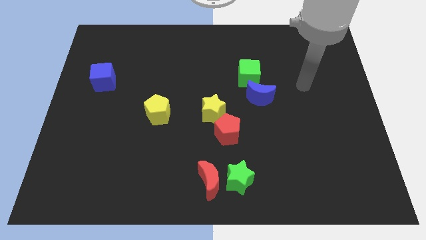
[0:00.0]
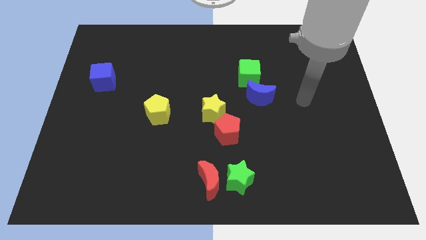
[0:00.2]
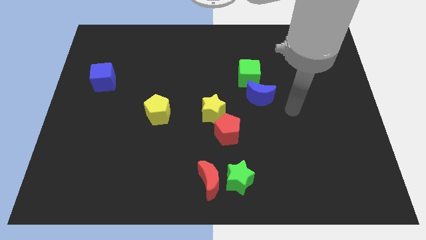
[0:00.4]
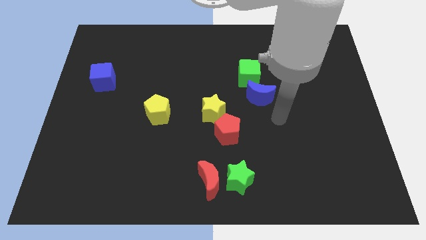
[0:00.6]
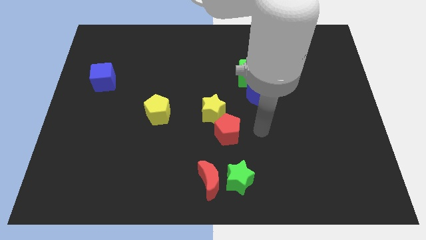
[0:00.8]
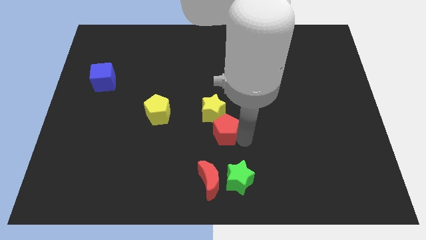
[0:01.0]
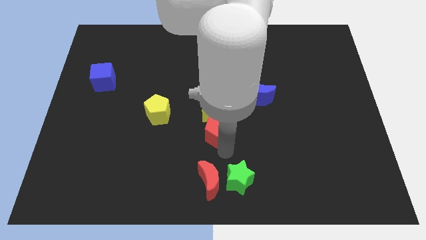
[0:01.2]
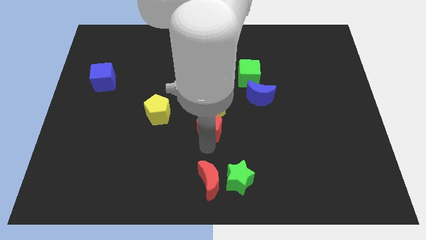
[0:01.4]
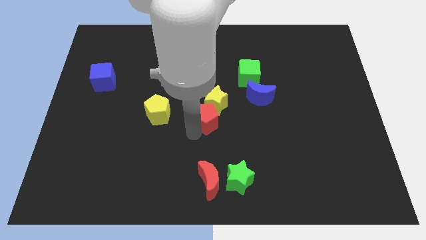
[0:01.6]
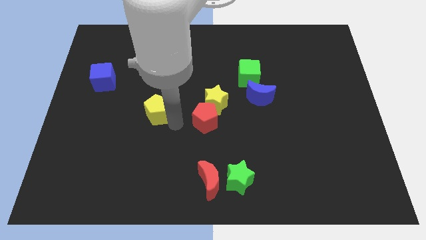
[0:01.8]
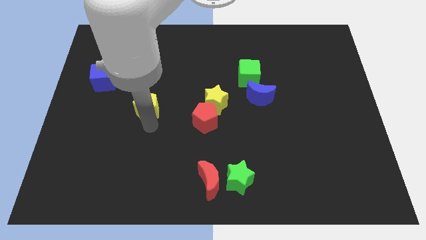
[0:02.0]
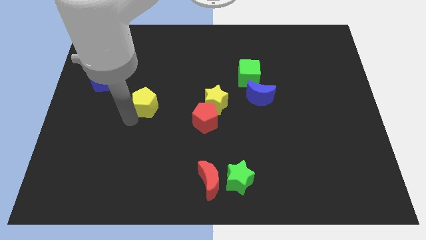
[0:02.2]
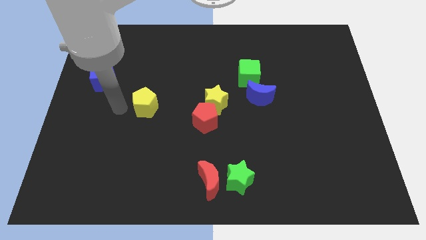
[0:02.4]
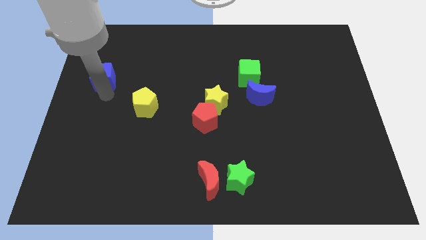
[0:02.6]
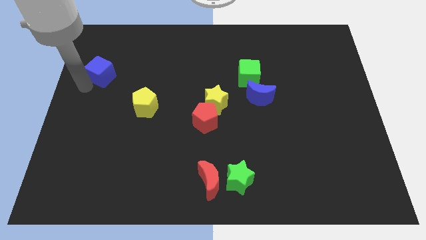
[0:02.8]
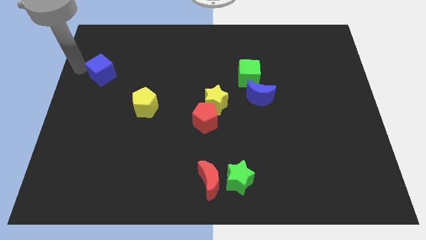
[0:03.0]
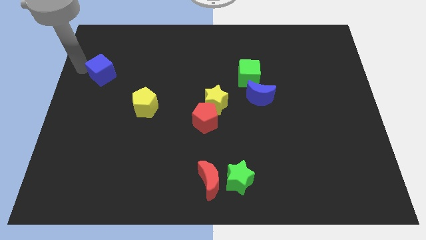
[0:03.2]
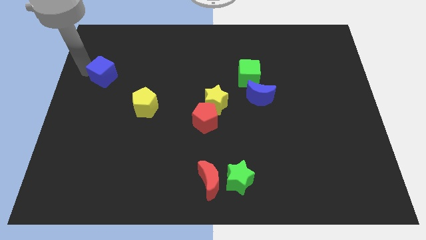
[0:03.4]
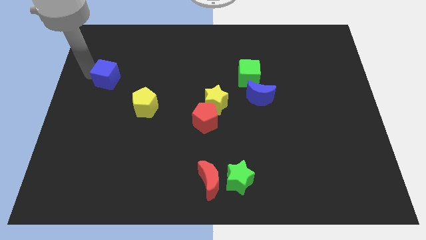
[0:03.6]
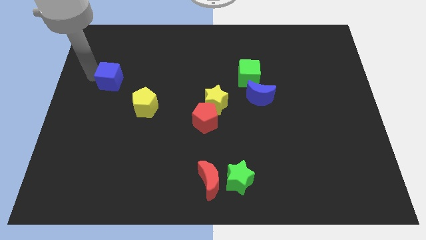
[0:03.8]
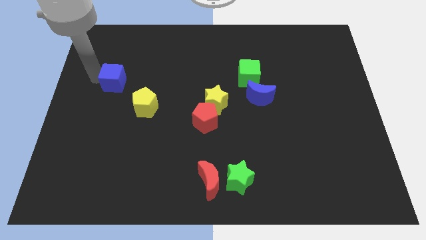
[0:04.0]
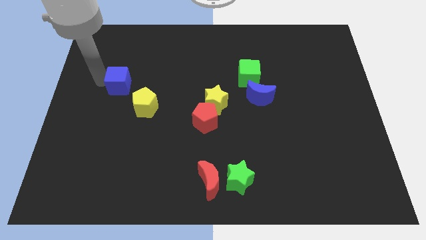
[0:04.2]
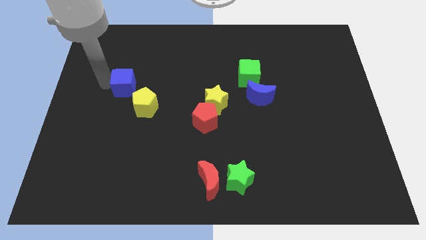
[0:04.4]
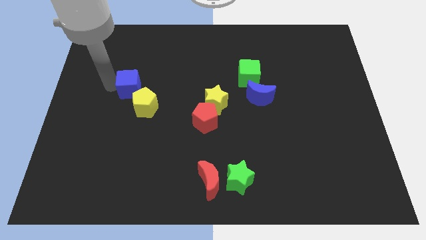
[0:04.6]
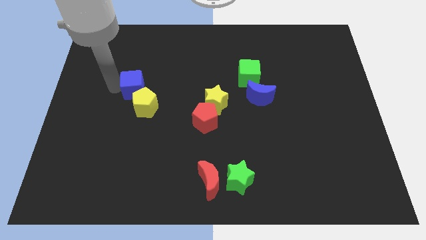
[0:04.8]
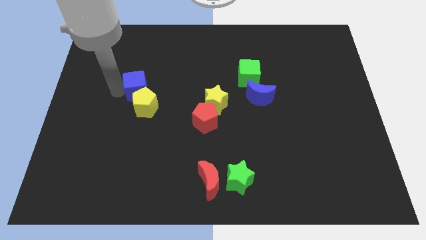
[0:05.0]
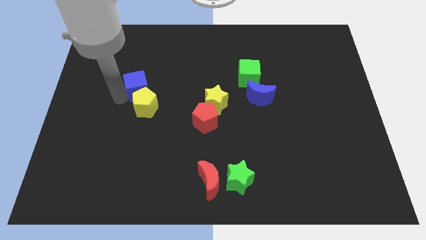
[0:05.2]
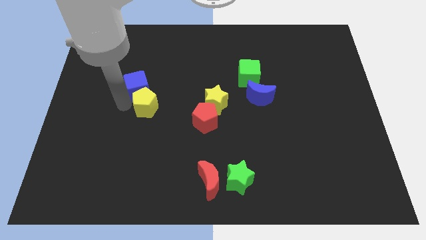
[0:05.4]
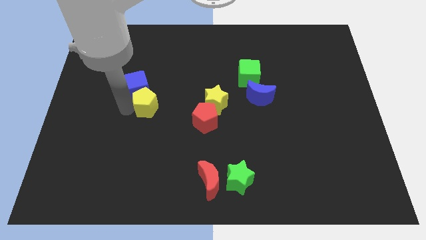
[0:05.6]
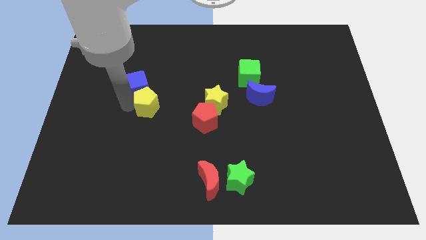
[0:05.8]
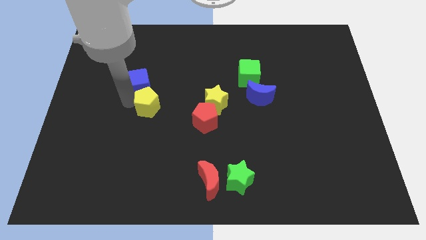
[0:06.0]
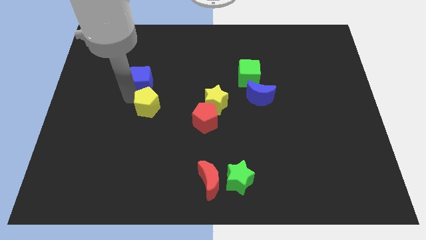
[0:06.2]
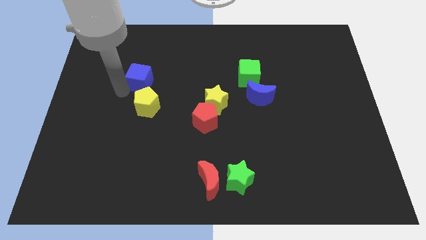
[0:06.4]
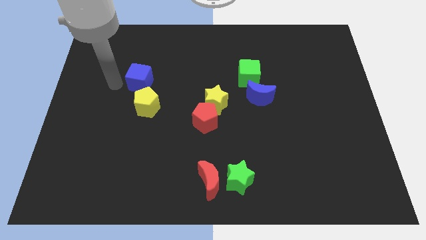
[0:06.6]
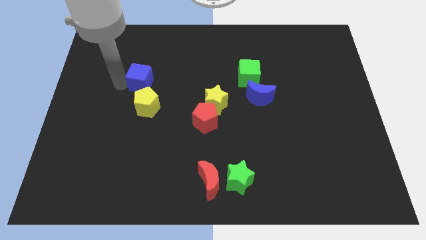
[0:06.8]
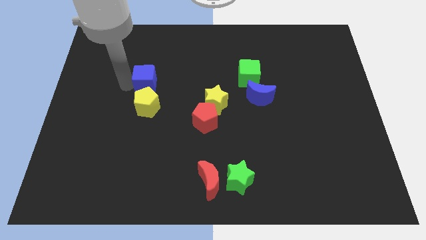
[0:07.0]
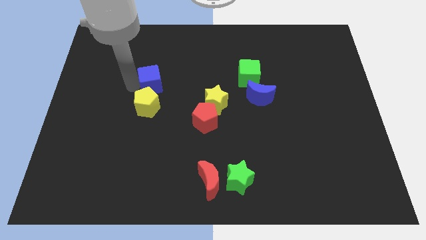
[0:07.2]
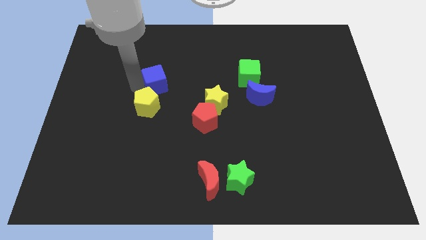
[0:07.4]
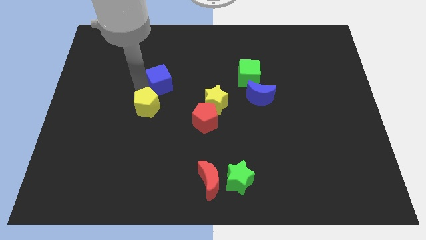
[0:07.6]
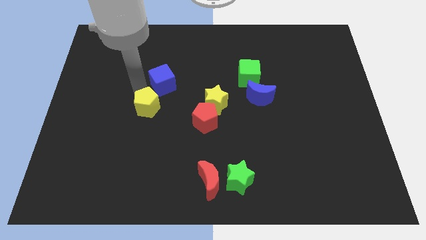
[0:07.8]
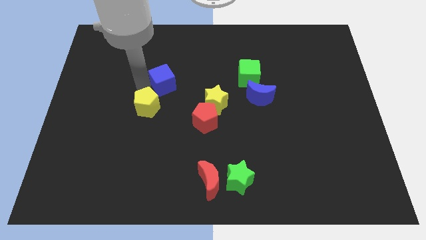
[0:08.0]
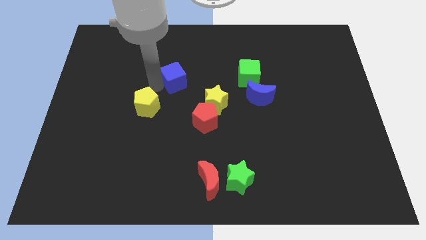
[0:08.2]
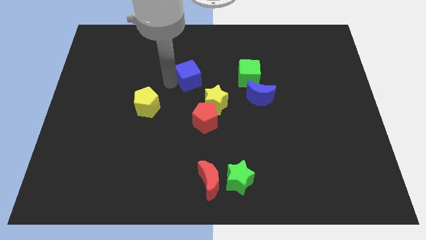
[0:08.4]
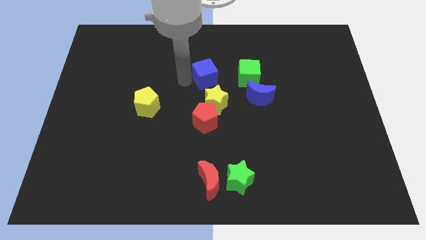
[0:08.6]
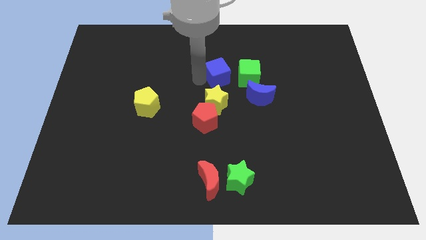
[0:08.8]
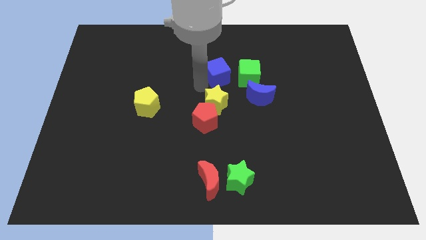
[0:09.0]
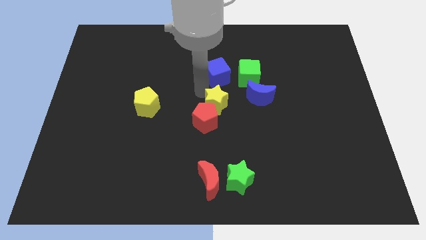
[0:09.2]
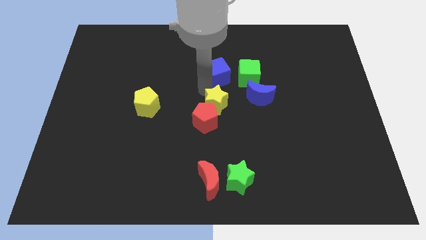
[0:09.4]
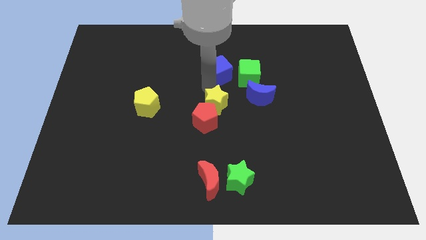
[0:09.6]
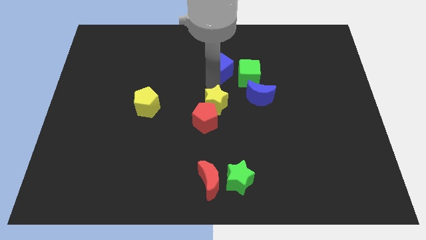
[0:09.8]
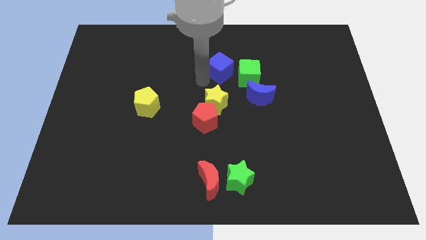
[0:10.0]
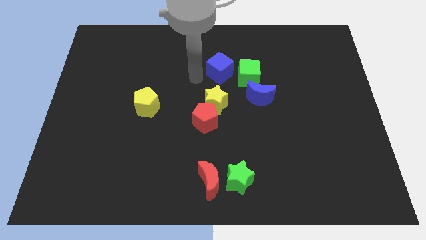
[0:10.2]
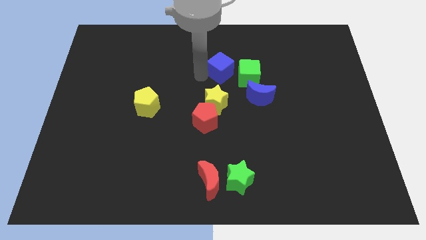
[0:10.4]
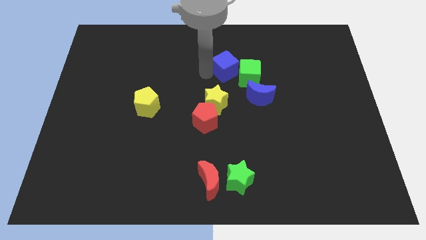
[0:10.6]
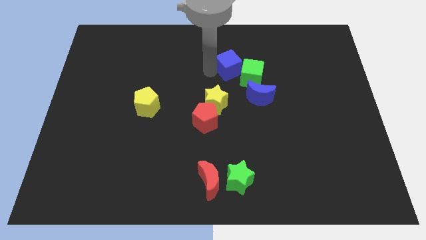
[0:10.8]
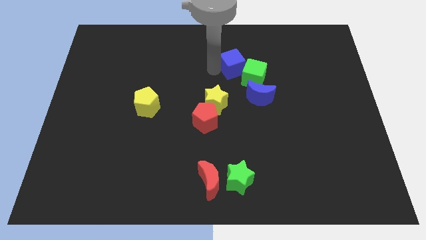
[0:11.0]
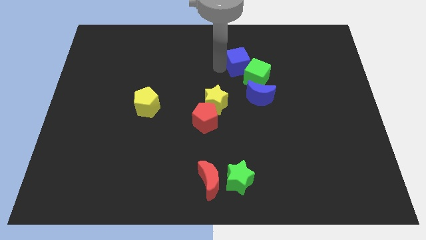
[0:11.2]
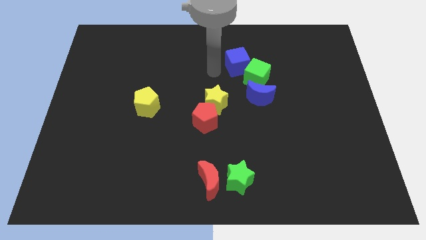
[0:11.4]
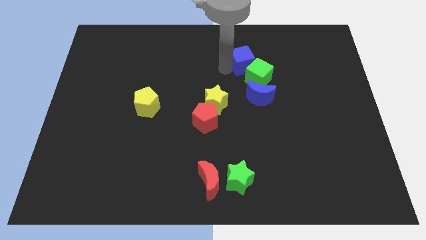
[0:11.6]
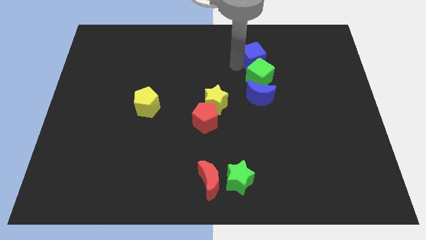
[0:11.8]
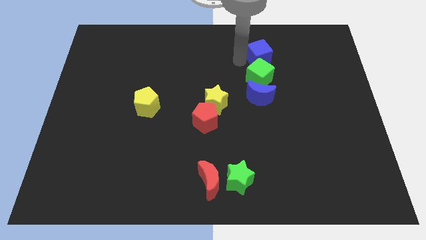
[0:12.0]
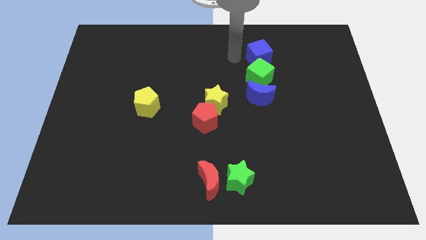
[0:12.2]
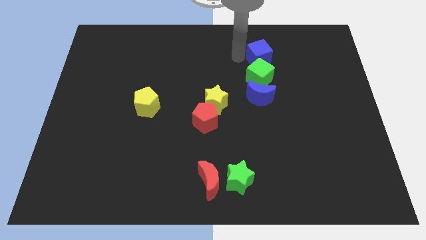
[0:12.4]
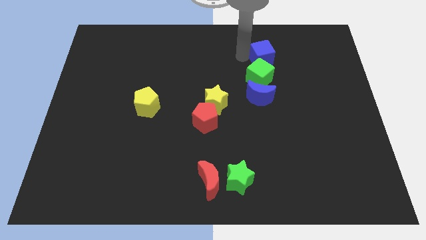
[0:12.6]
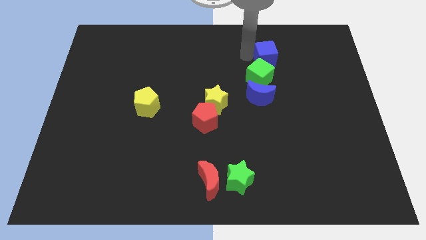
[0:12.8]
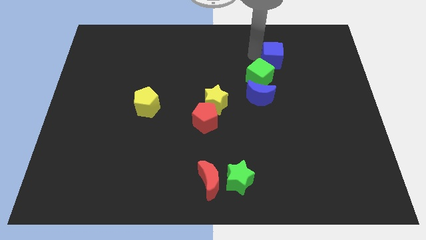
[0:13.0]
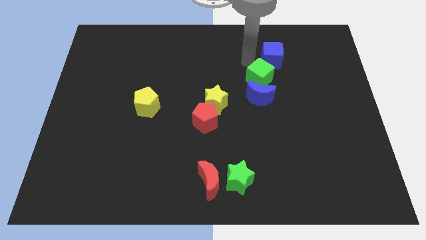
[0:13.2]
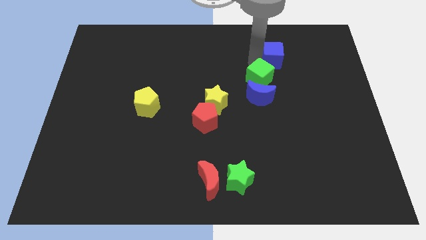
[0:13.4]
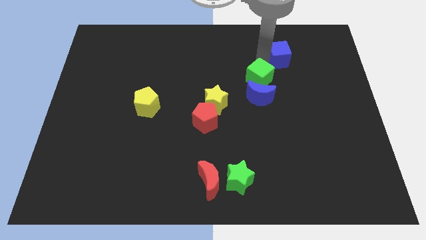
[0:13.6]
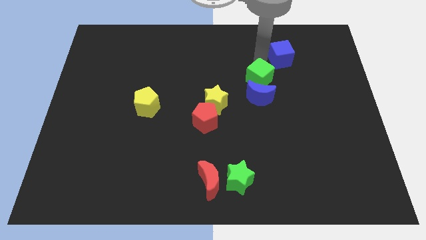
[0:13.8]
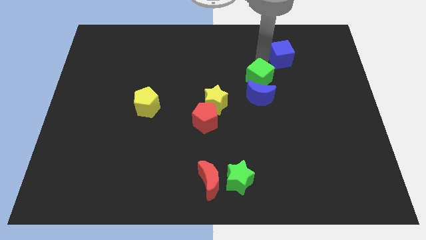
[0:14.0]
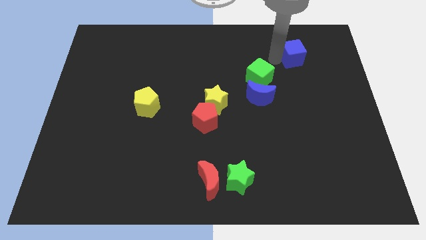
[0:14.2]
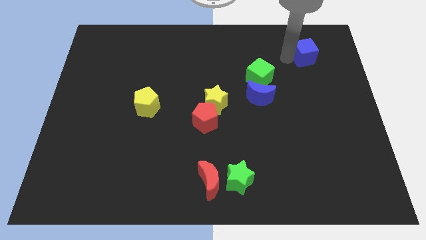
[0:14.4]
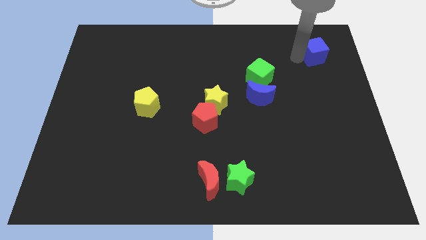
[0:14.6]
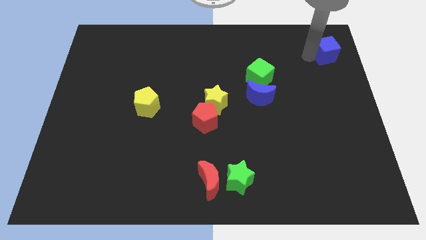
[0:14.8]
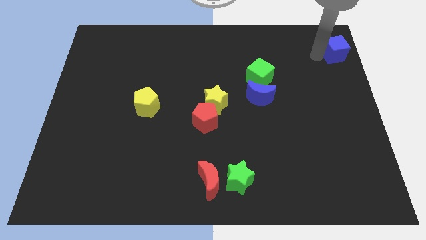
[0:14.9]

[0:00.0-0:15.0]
push the blue cube to the top right of the board
